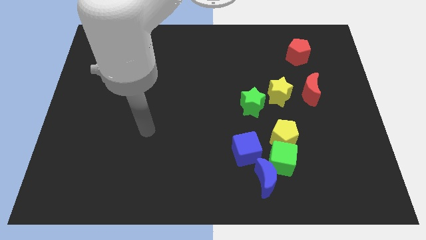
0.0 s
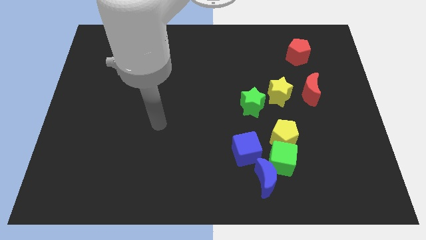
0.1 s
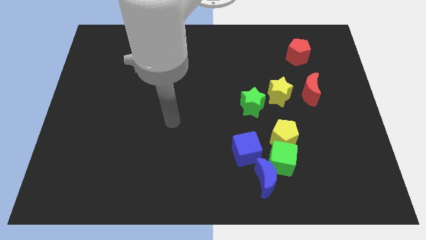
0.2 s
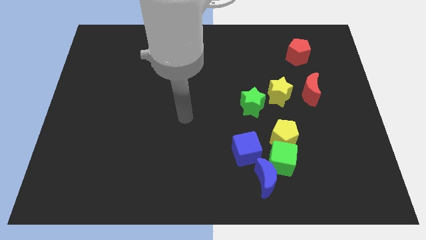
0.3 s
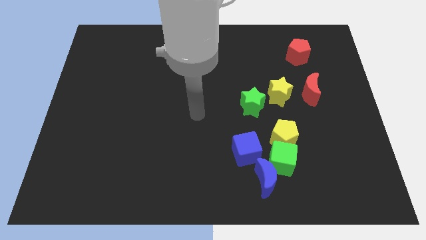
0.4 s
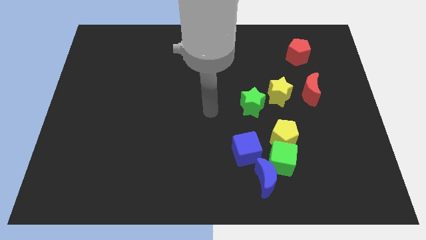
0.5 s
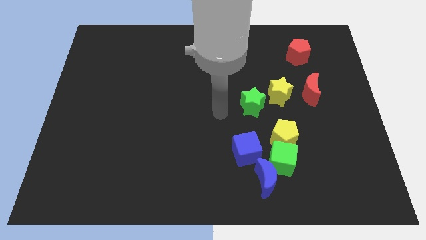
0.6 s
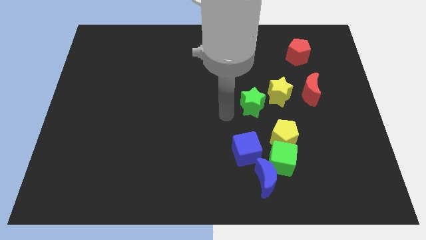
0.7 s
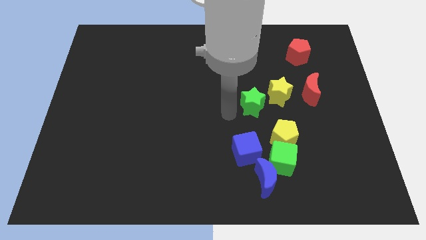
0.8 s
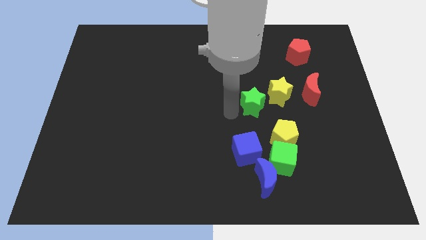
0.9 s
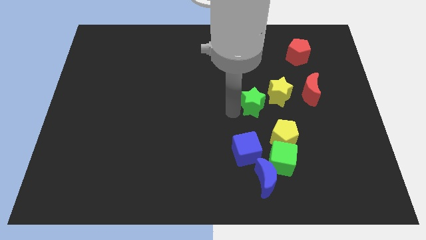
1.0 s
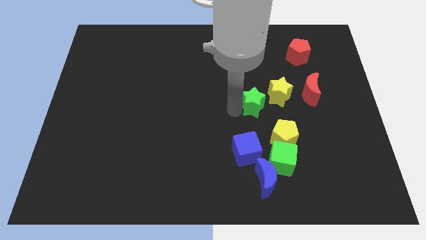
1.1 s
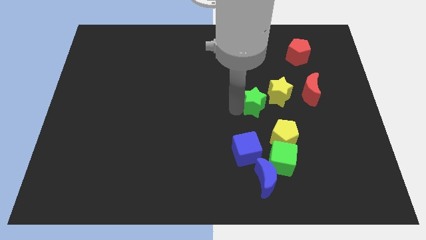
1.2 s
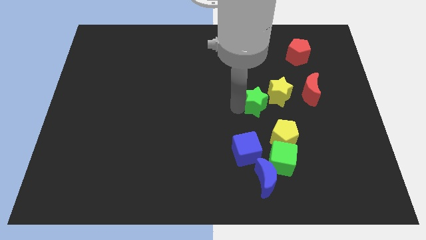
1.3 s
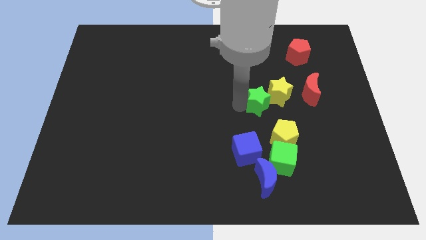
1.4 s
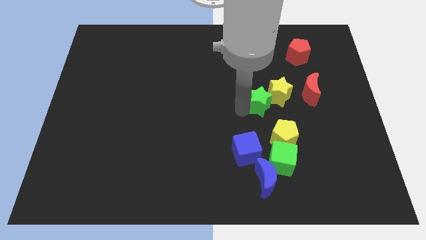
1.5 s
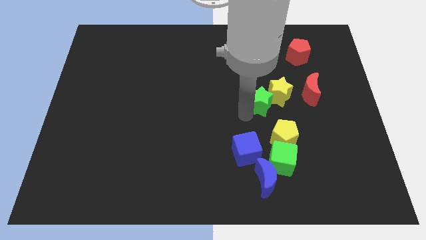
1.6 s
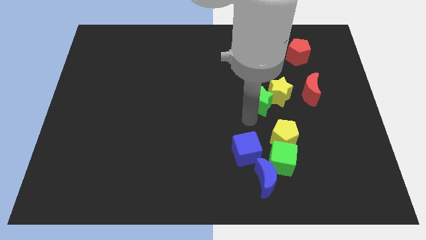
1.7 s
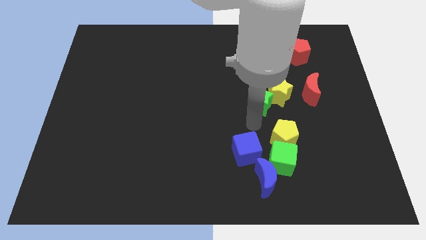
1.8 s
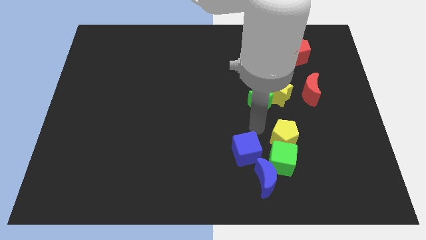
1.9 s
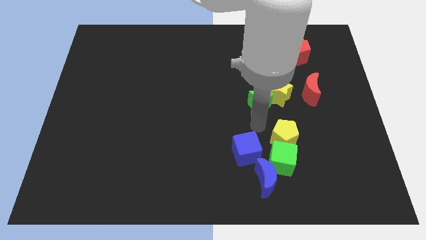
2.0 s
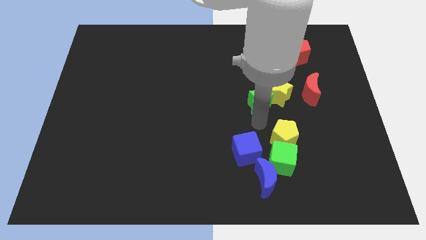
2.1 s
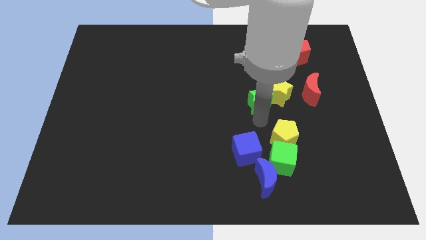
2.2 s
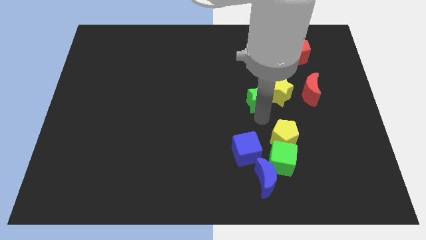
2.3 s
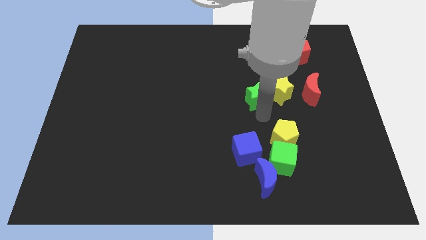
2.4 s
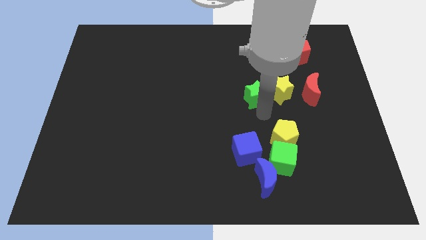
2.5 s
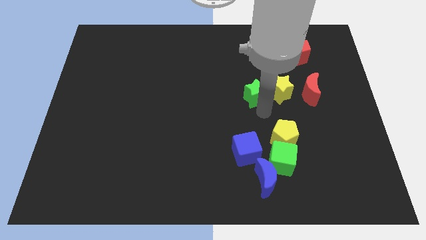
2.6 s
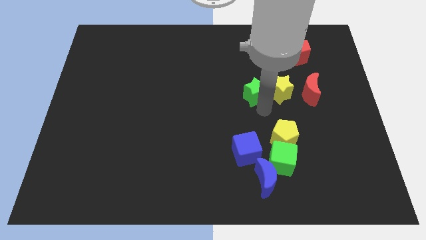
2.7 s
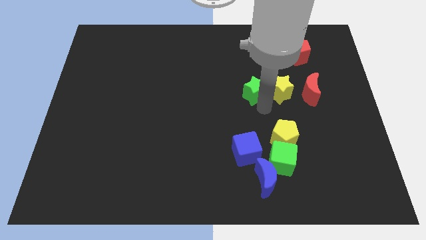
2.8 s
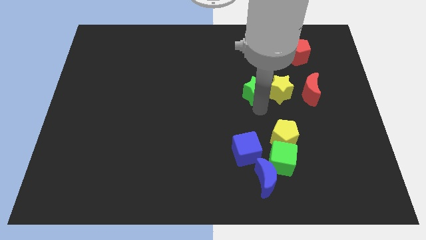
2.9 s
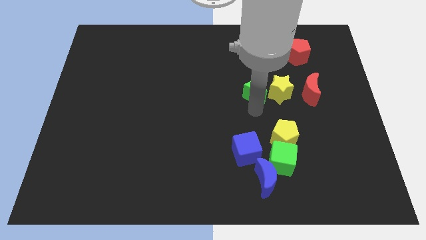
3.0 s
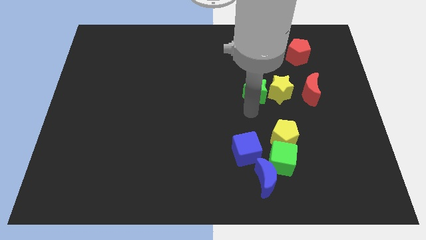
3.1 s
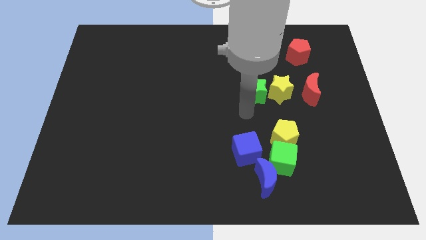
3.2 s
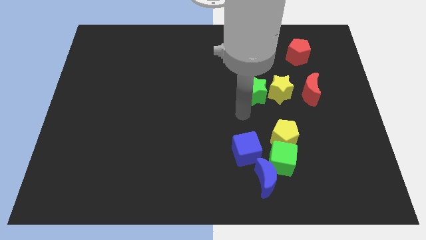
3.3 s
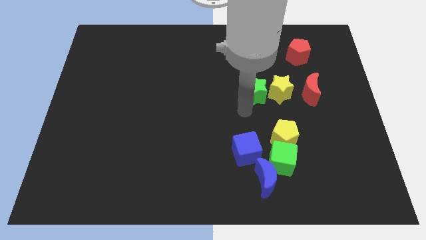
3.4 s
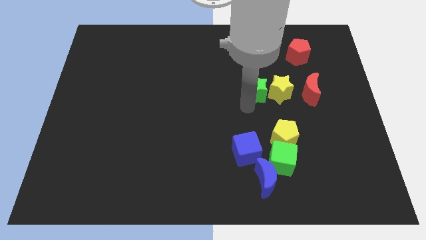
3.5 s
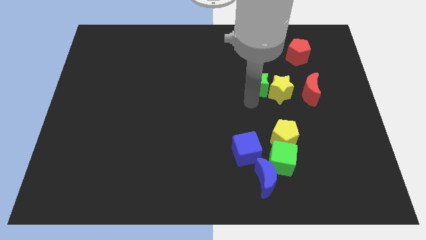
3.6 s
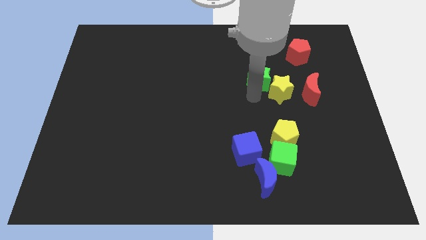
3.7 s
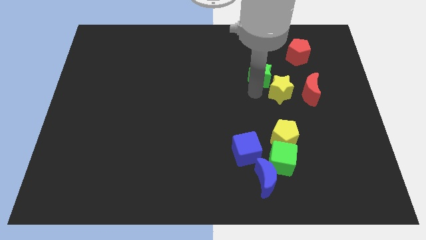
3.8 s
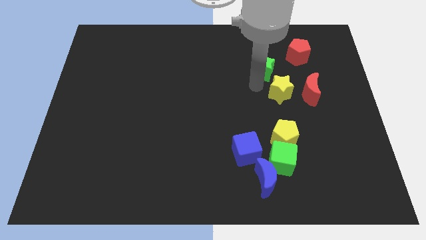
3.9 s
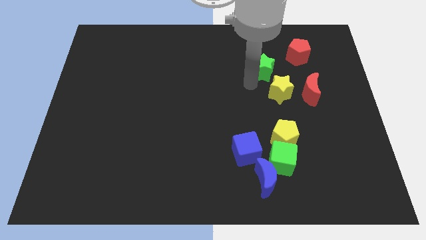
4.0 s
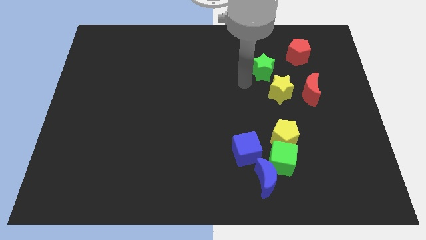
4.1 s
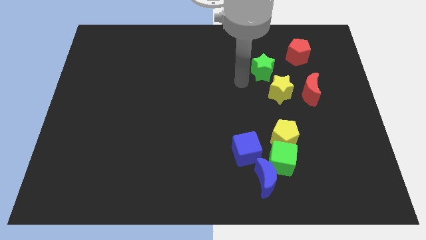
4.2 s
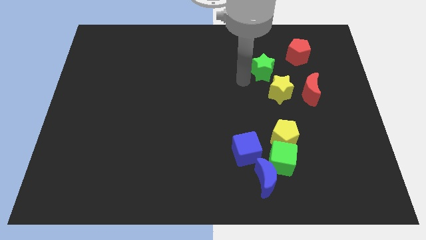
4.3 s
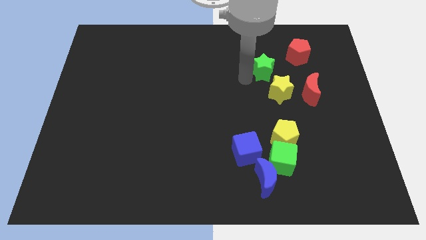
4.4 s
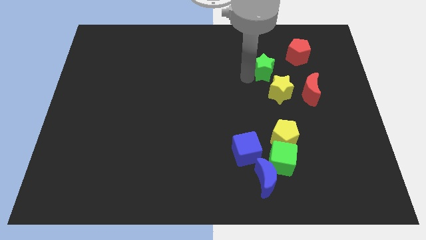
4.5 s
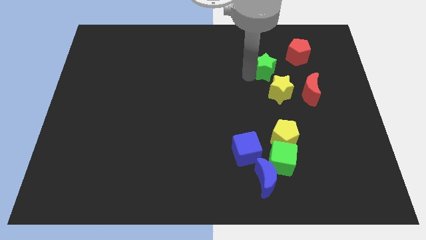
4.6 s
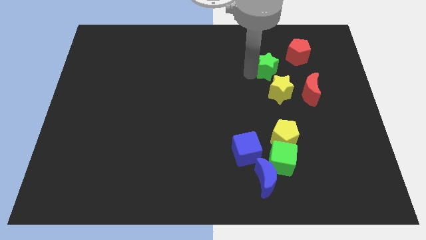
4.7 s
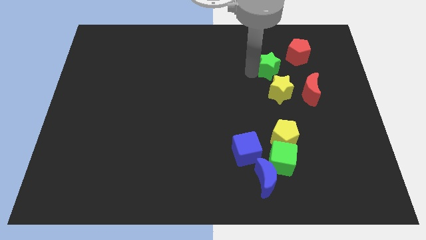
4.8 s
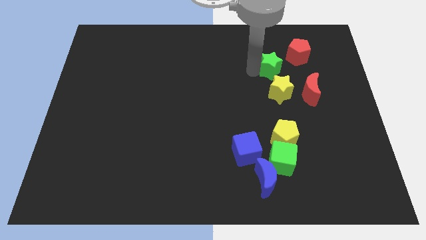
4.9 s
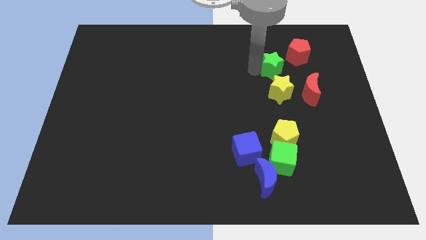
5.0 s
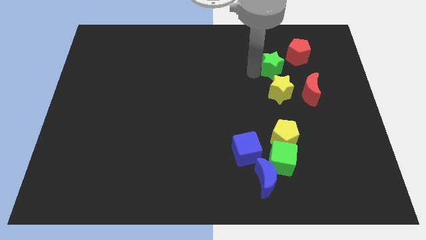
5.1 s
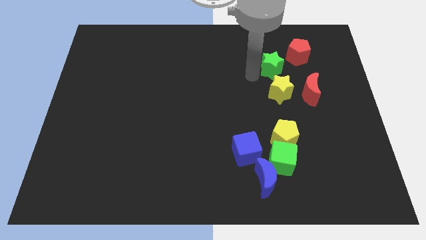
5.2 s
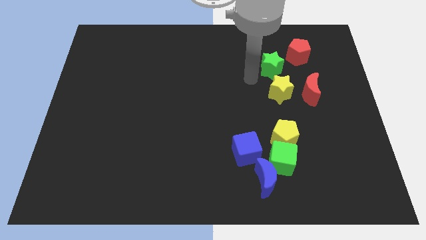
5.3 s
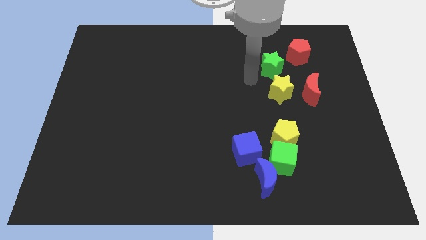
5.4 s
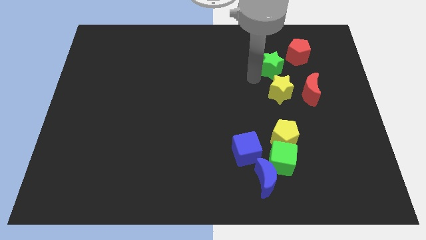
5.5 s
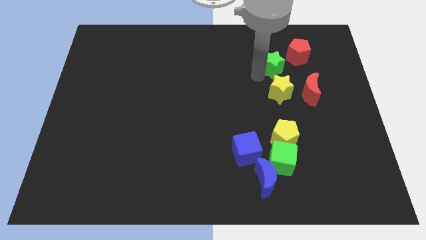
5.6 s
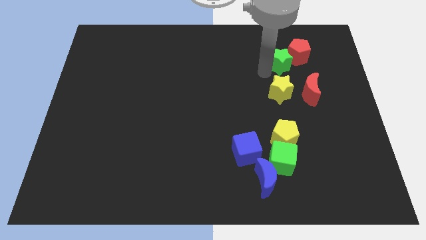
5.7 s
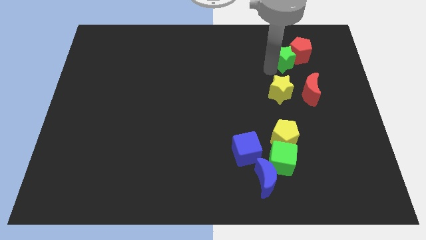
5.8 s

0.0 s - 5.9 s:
move the green star next to the red pentagon

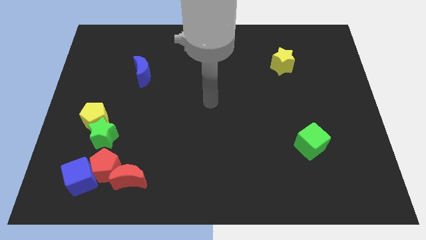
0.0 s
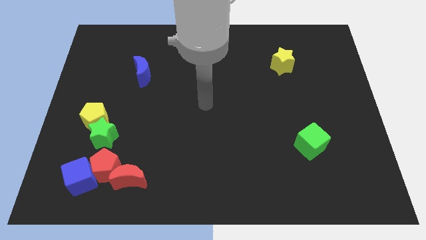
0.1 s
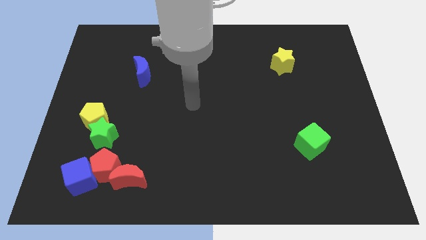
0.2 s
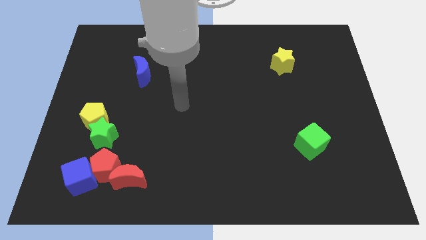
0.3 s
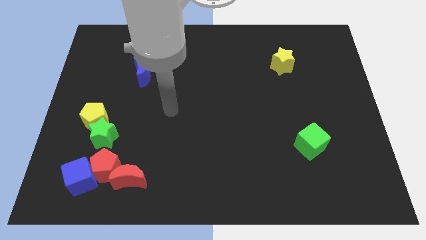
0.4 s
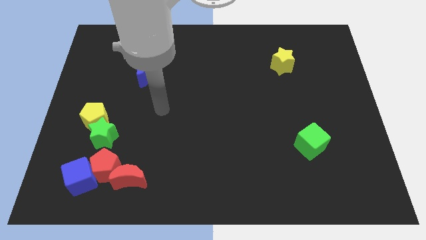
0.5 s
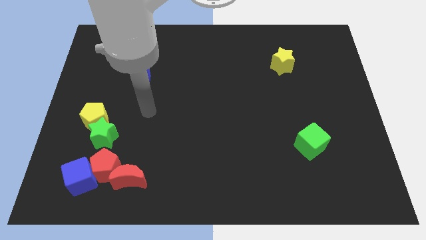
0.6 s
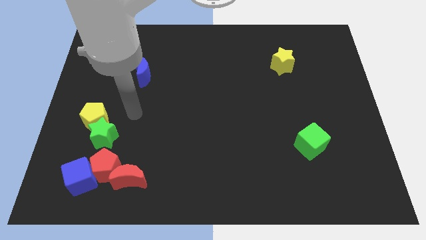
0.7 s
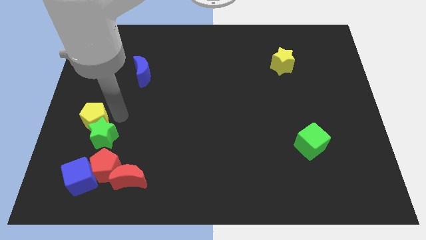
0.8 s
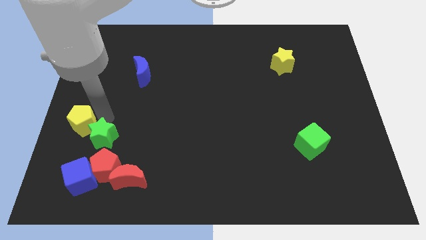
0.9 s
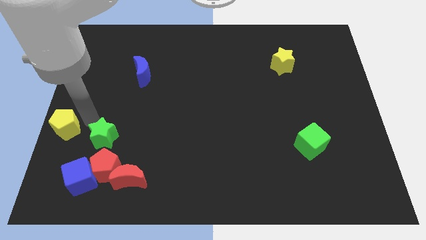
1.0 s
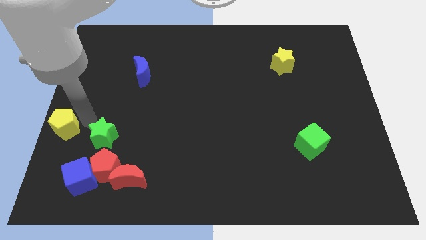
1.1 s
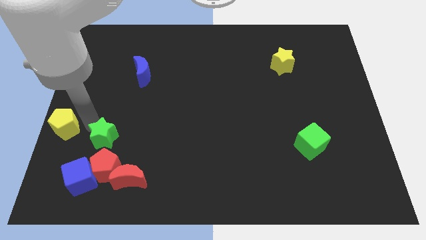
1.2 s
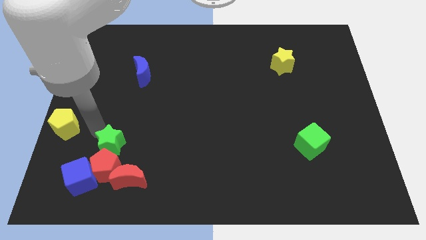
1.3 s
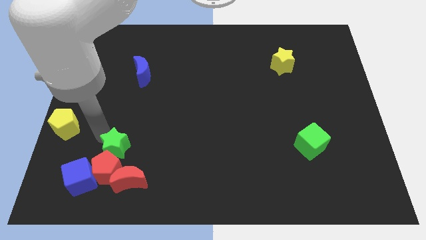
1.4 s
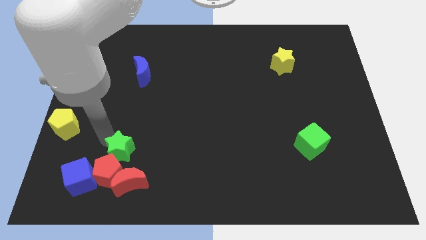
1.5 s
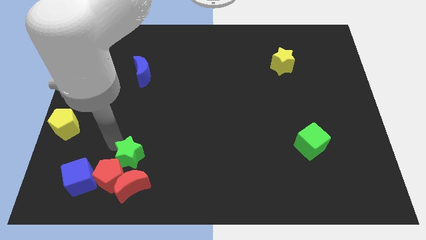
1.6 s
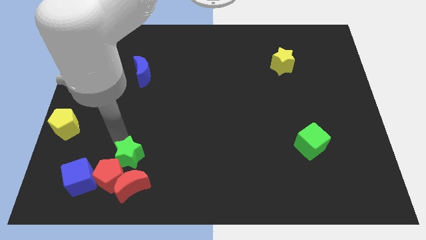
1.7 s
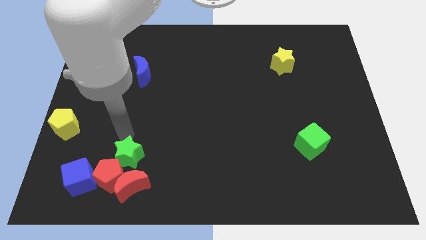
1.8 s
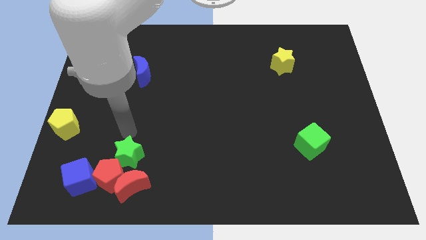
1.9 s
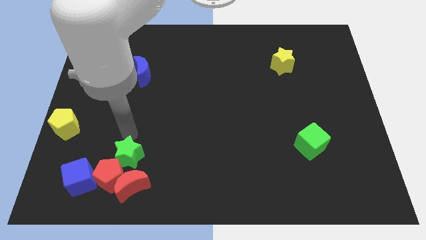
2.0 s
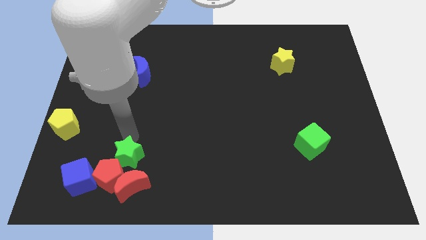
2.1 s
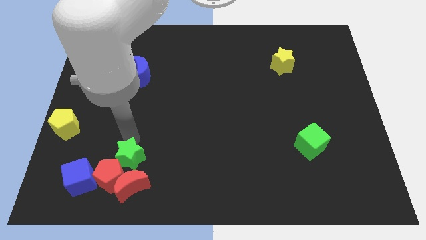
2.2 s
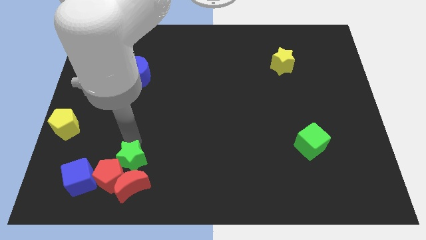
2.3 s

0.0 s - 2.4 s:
slide the green star towards the red moon
